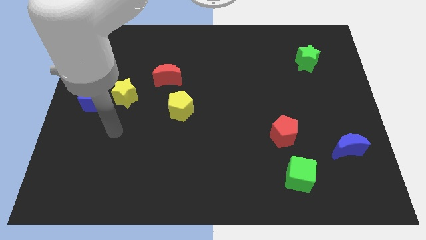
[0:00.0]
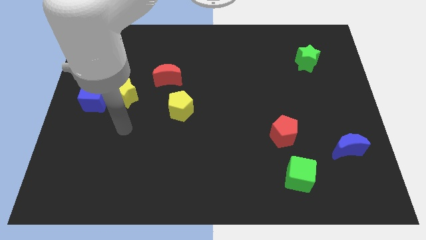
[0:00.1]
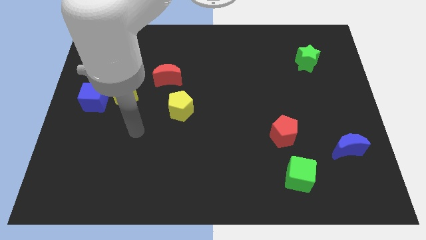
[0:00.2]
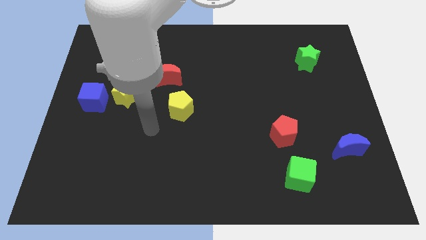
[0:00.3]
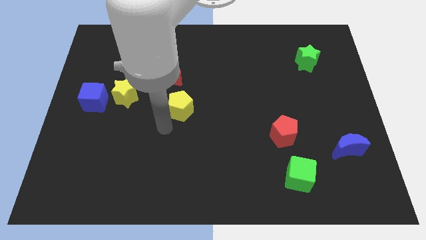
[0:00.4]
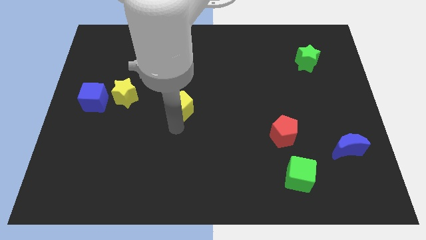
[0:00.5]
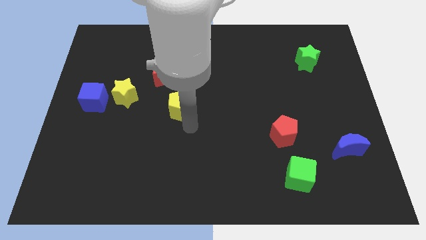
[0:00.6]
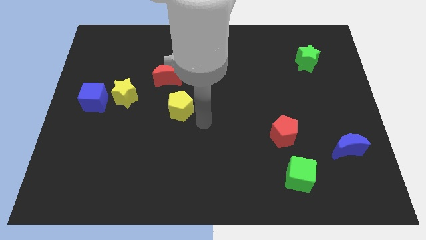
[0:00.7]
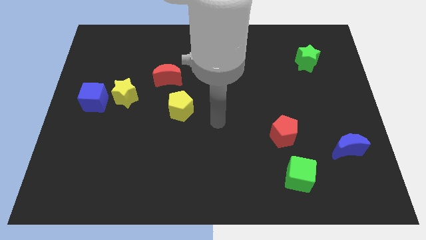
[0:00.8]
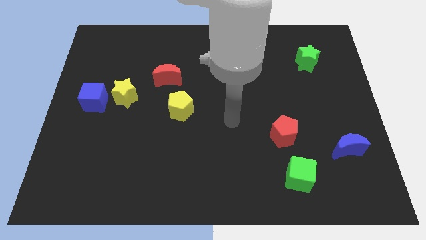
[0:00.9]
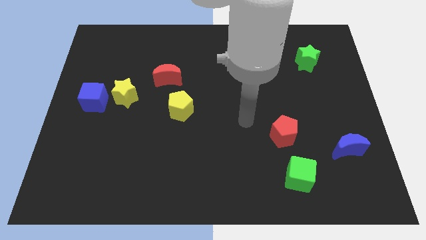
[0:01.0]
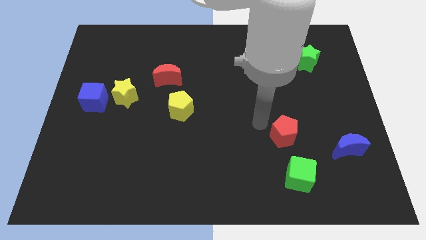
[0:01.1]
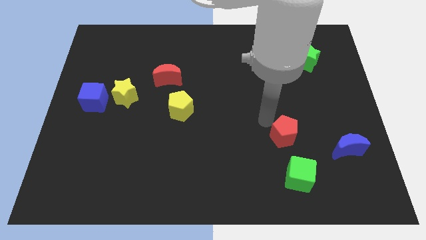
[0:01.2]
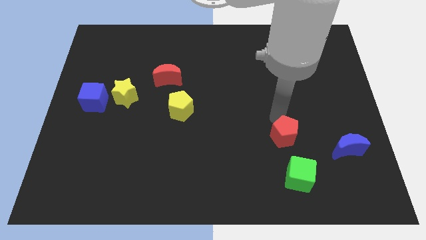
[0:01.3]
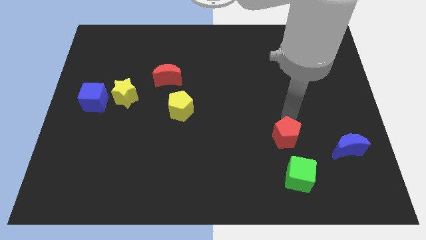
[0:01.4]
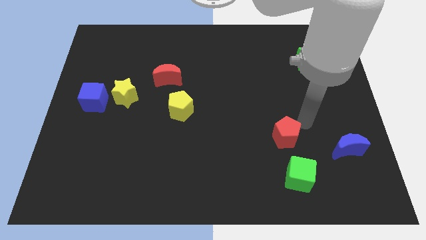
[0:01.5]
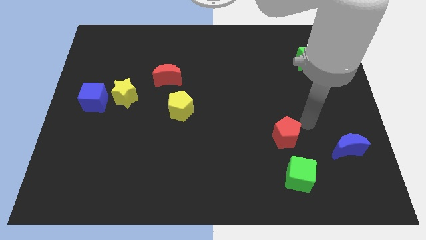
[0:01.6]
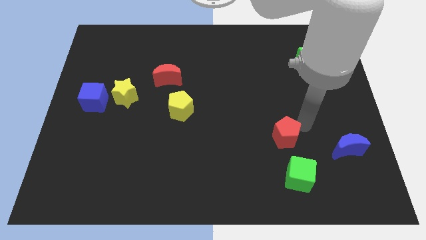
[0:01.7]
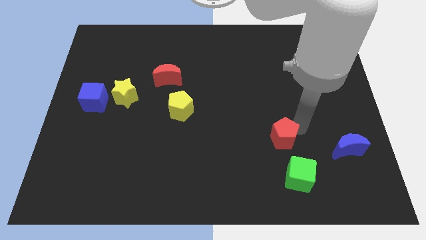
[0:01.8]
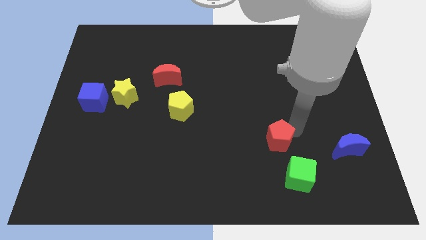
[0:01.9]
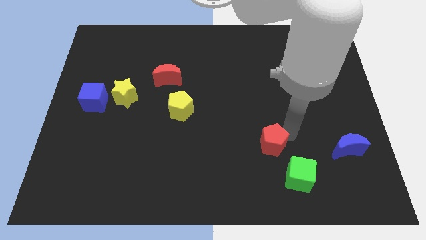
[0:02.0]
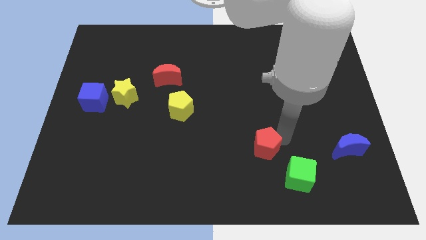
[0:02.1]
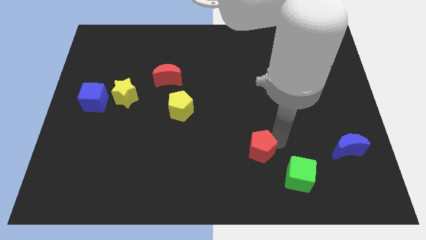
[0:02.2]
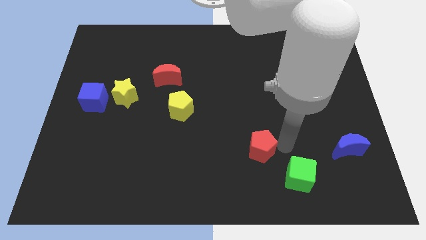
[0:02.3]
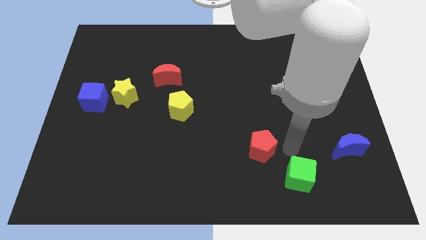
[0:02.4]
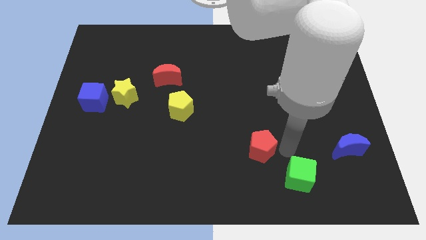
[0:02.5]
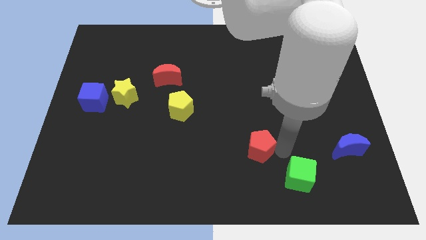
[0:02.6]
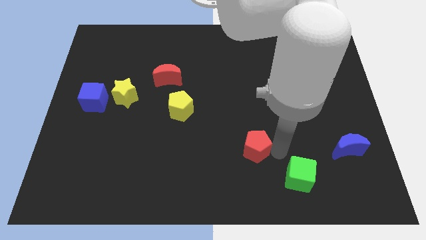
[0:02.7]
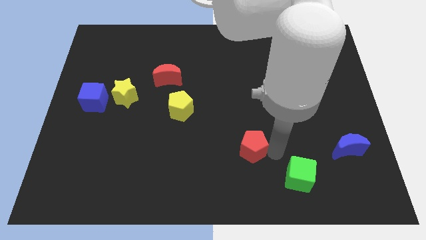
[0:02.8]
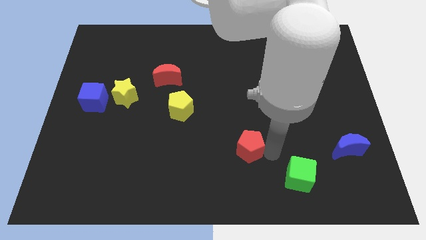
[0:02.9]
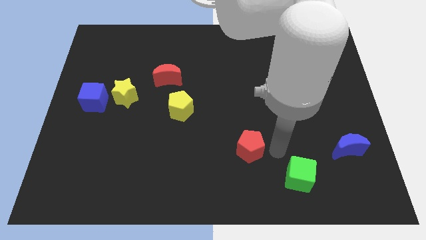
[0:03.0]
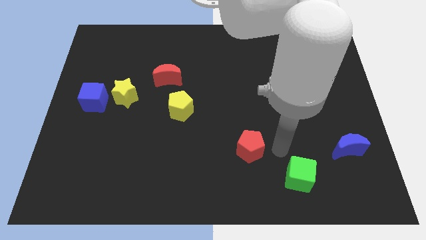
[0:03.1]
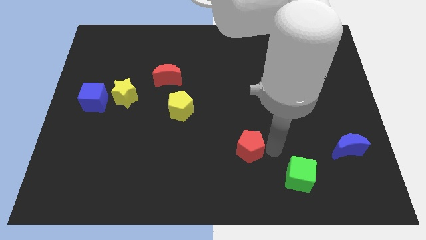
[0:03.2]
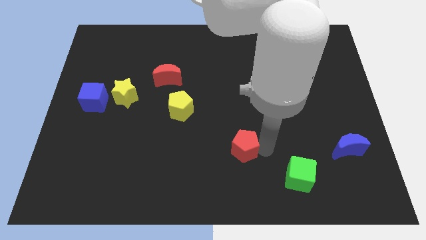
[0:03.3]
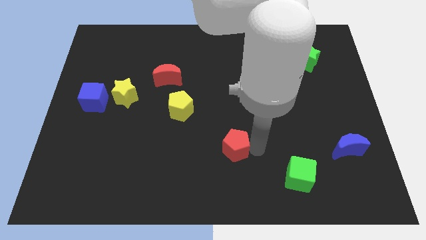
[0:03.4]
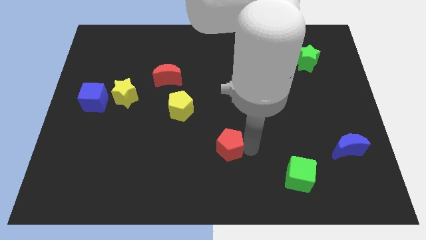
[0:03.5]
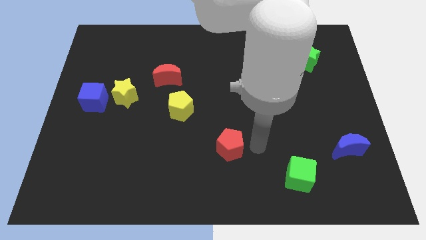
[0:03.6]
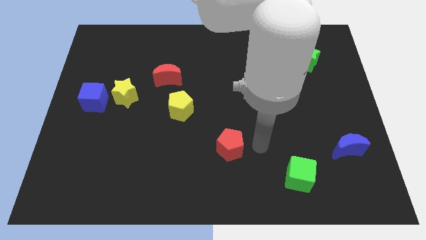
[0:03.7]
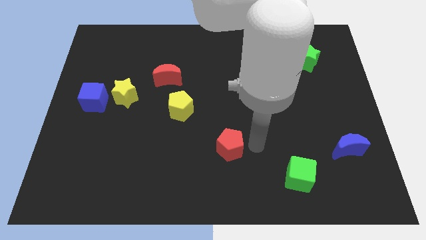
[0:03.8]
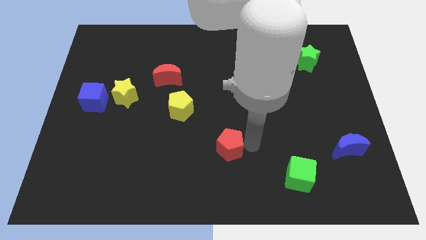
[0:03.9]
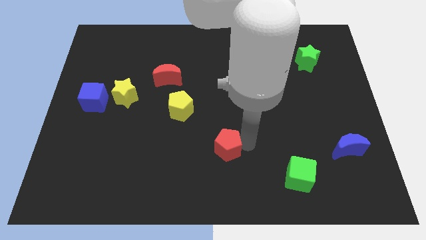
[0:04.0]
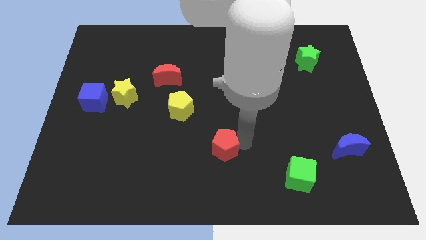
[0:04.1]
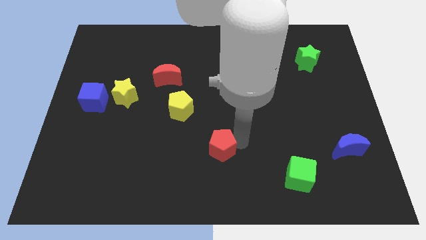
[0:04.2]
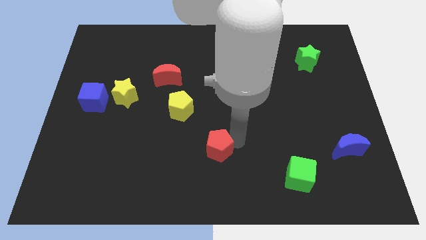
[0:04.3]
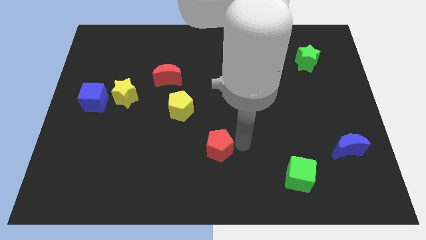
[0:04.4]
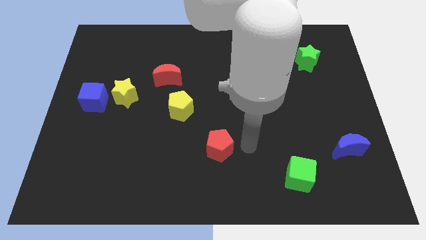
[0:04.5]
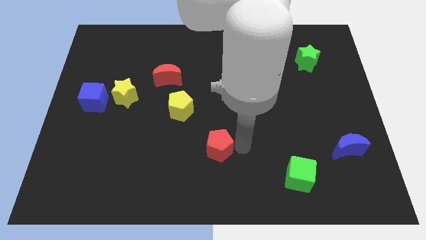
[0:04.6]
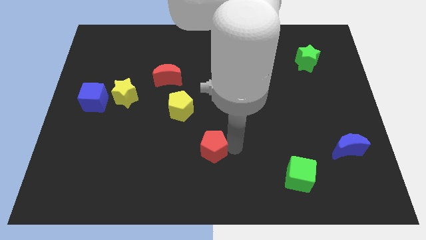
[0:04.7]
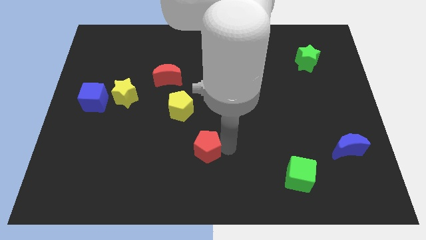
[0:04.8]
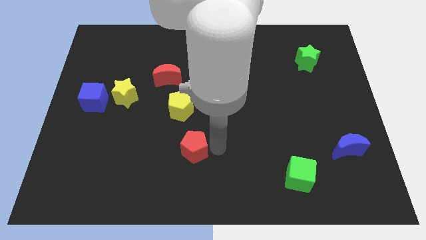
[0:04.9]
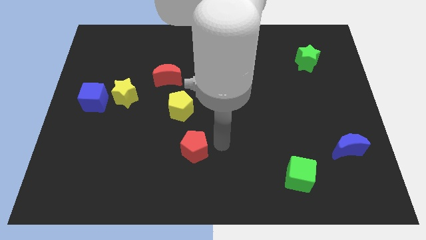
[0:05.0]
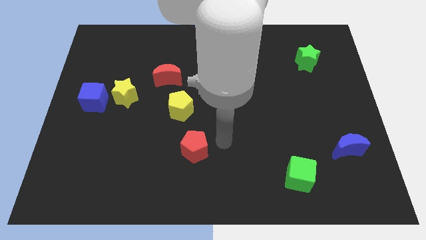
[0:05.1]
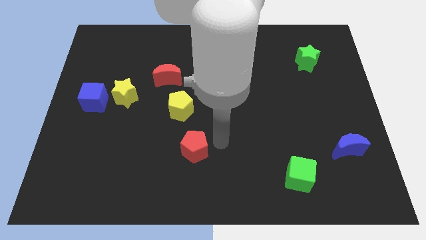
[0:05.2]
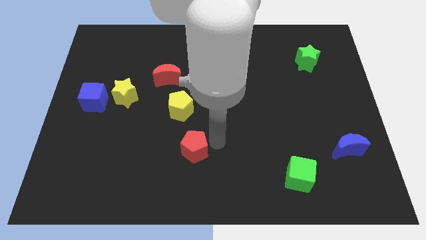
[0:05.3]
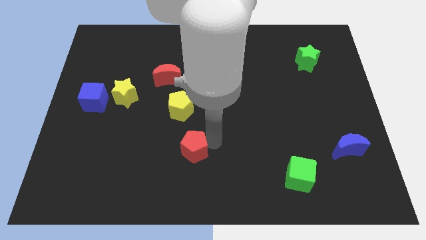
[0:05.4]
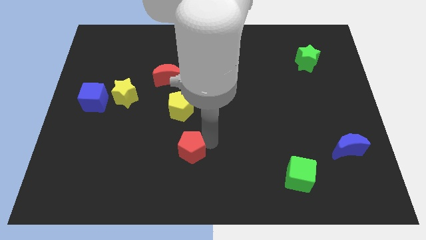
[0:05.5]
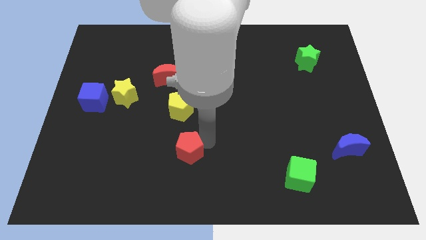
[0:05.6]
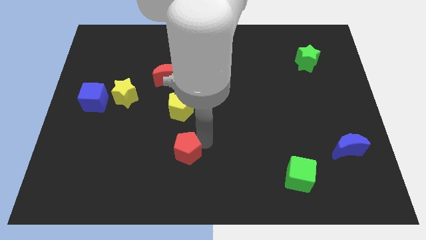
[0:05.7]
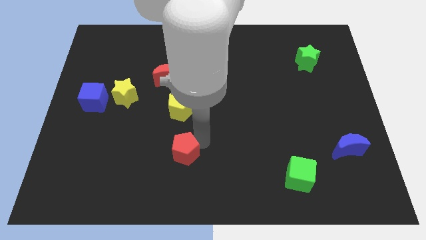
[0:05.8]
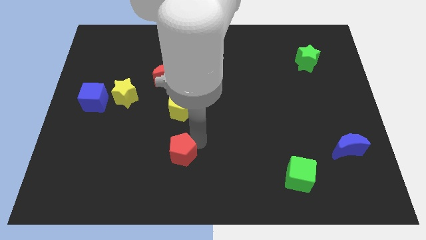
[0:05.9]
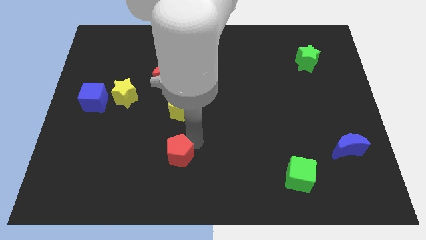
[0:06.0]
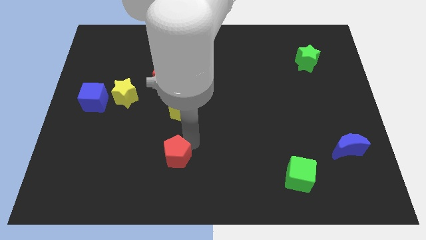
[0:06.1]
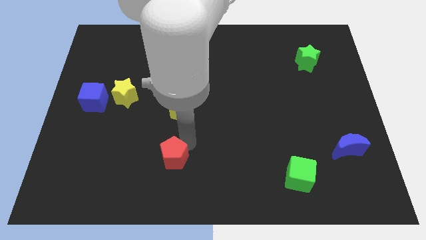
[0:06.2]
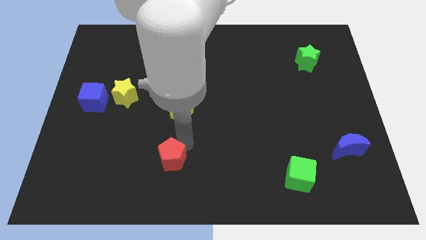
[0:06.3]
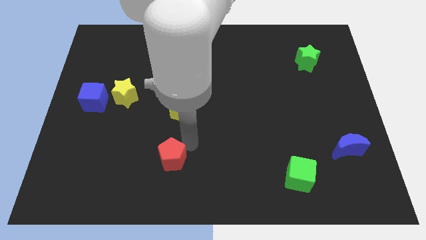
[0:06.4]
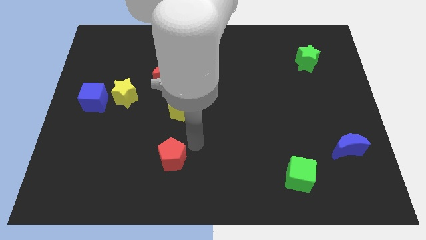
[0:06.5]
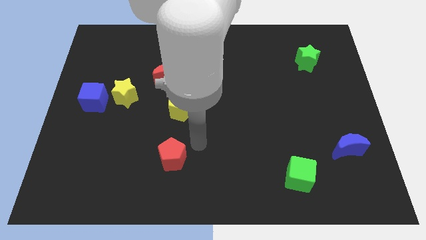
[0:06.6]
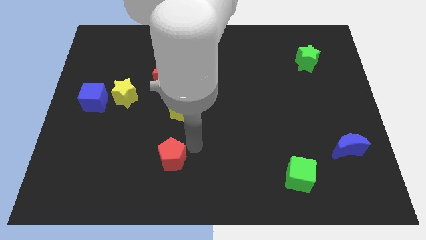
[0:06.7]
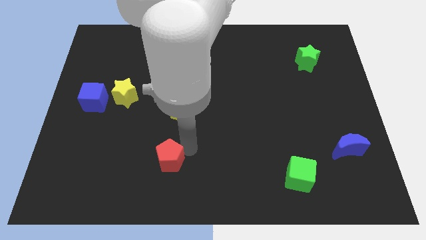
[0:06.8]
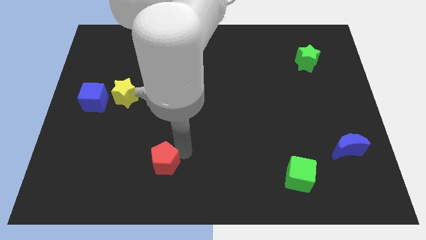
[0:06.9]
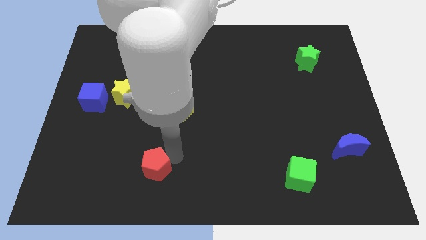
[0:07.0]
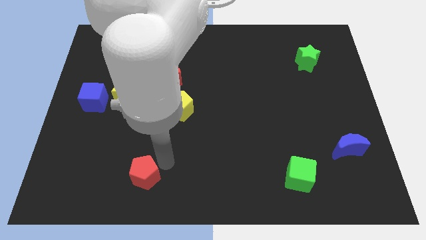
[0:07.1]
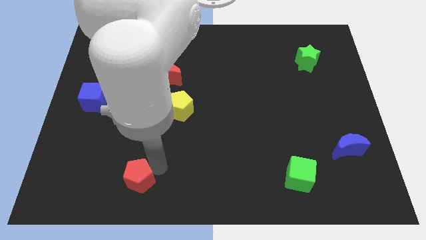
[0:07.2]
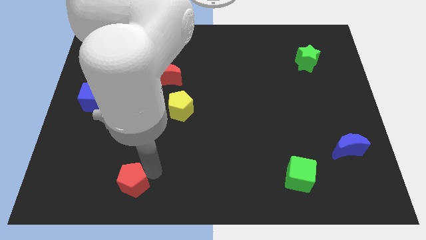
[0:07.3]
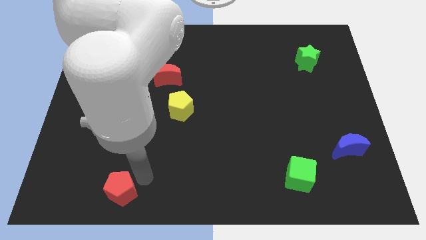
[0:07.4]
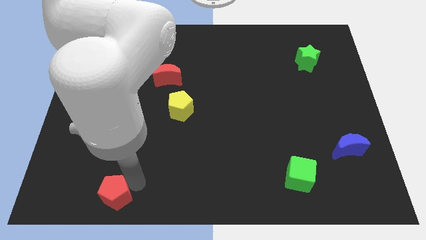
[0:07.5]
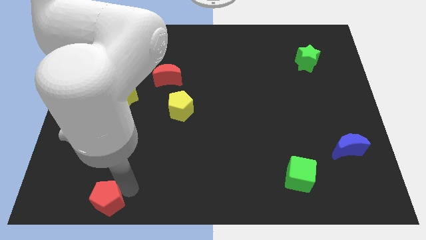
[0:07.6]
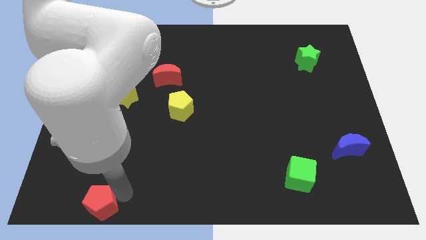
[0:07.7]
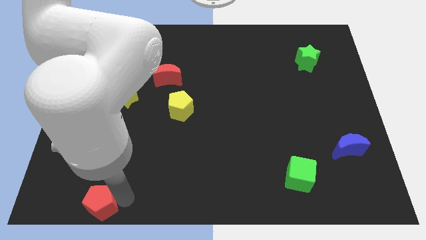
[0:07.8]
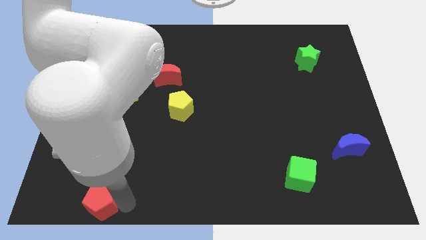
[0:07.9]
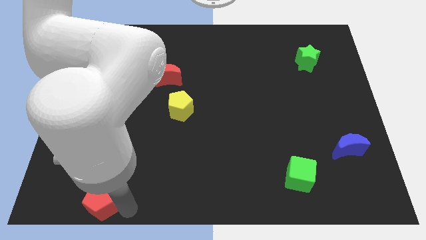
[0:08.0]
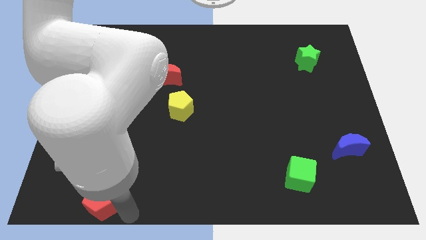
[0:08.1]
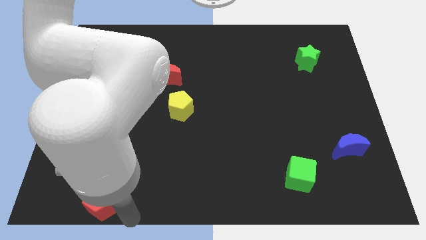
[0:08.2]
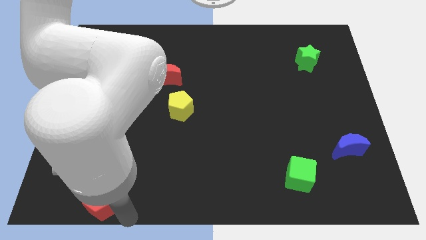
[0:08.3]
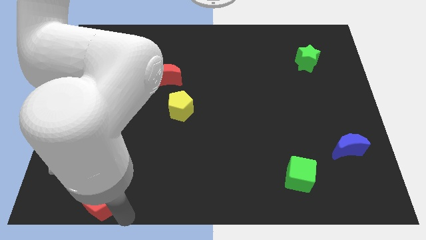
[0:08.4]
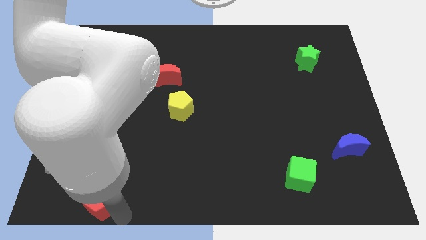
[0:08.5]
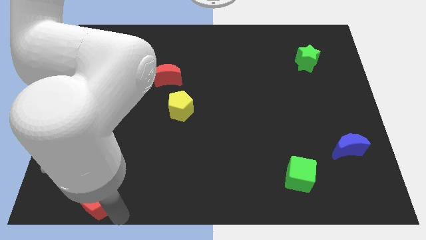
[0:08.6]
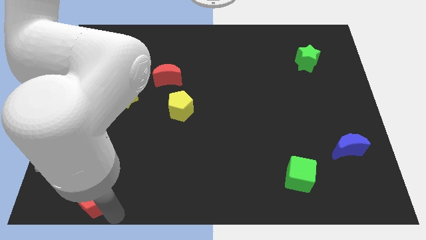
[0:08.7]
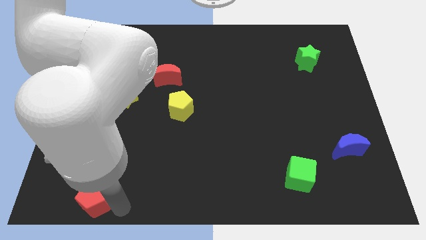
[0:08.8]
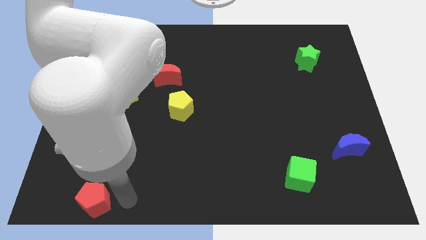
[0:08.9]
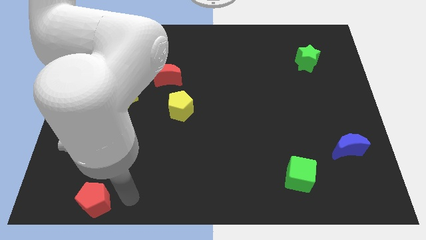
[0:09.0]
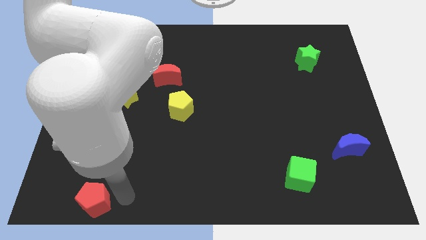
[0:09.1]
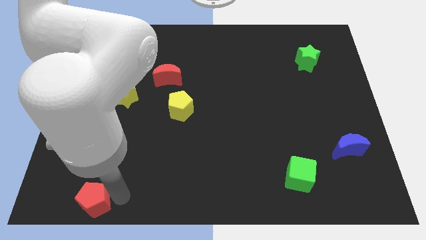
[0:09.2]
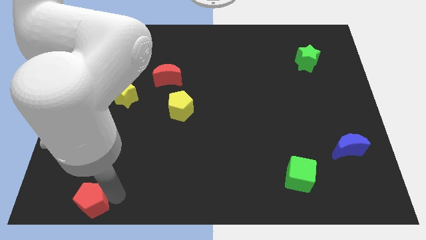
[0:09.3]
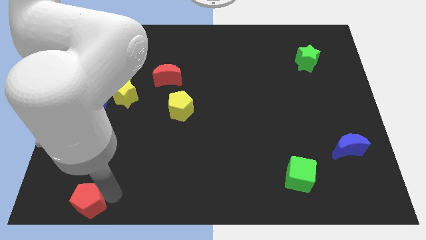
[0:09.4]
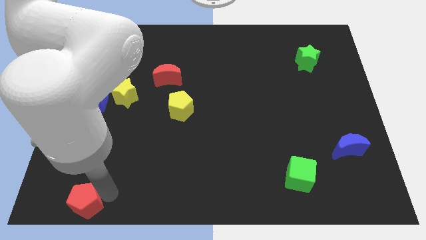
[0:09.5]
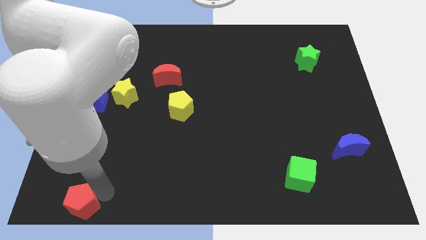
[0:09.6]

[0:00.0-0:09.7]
move the red pentagon to the bottom left of the board
